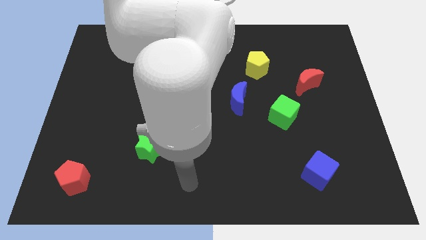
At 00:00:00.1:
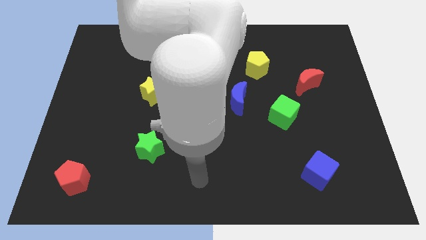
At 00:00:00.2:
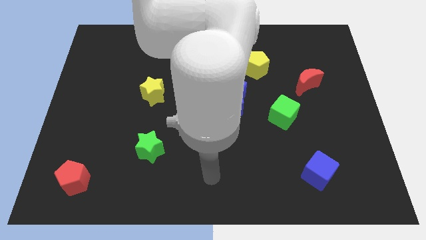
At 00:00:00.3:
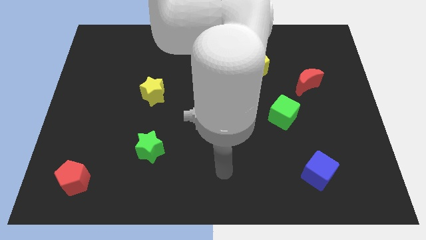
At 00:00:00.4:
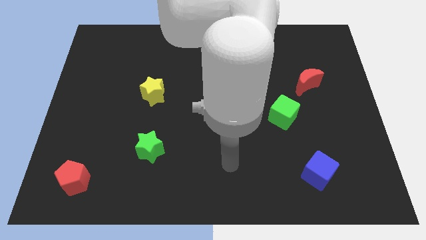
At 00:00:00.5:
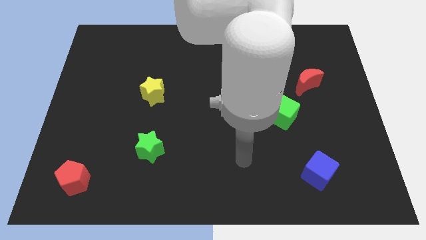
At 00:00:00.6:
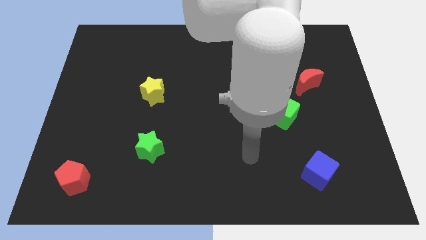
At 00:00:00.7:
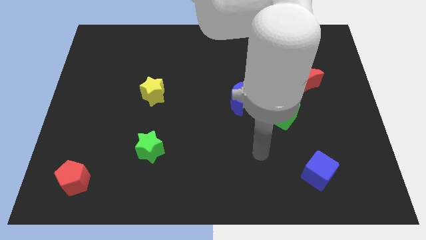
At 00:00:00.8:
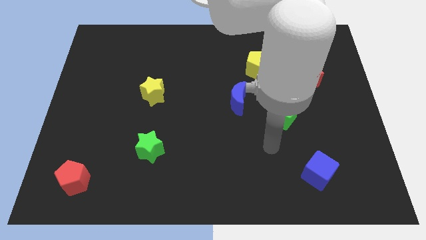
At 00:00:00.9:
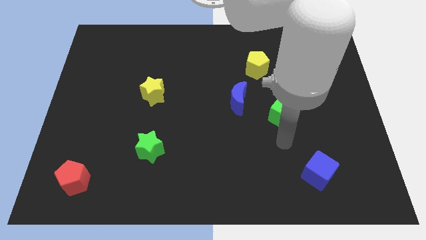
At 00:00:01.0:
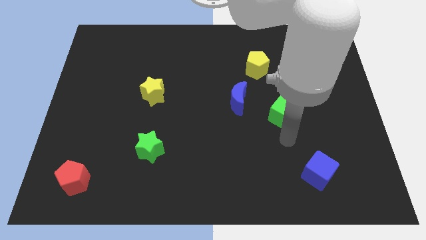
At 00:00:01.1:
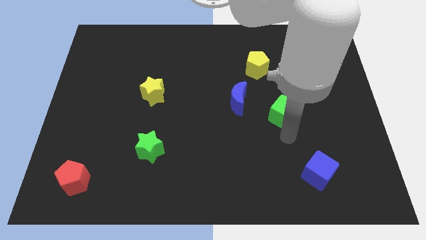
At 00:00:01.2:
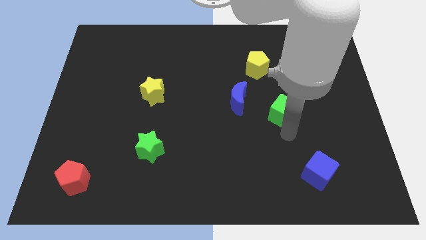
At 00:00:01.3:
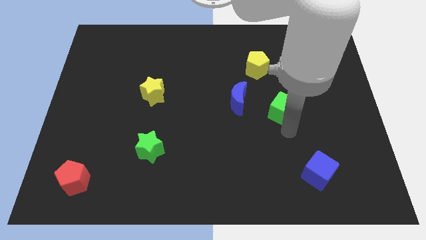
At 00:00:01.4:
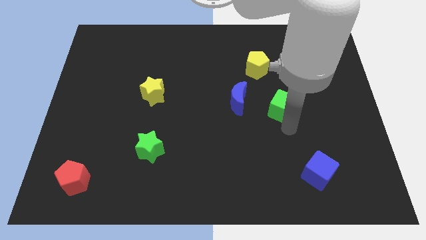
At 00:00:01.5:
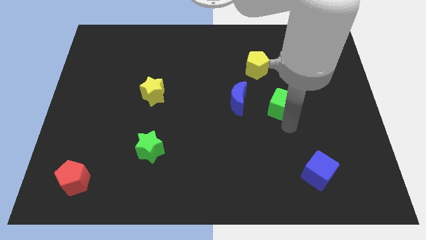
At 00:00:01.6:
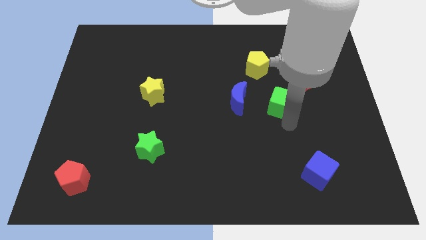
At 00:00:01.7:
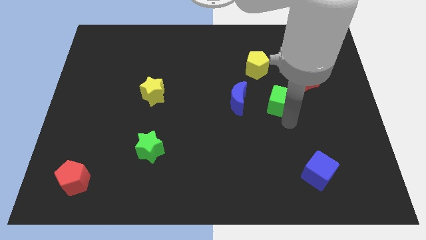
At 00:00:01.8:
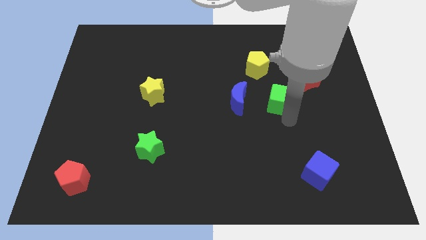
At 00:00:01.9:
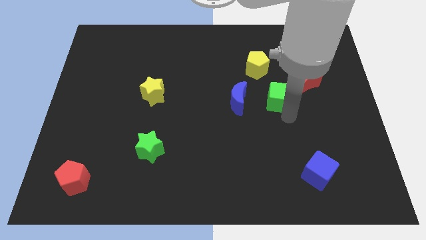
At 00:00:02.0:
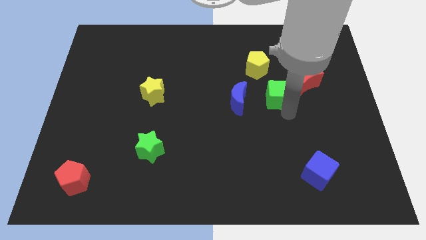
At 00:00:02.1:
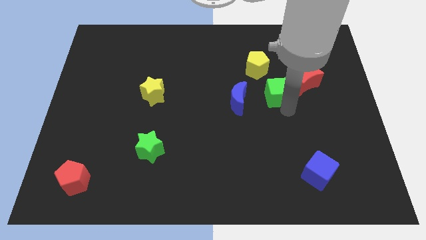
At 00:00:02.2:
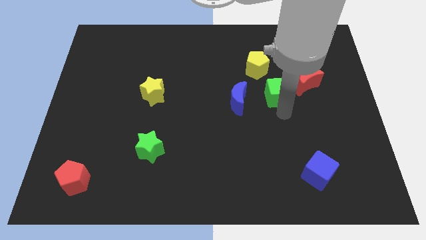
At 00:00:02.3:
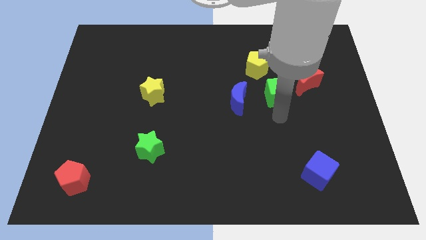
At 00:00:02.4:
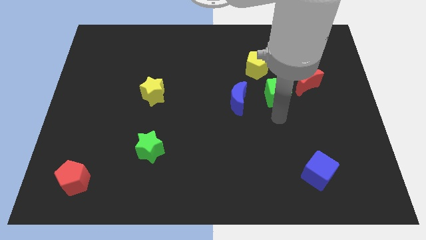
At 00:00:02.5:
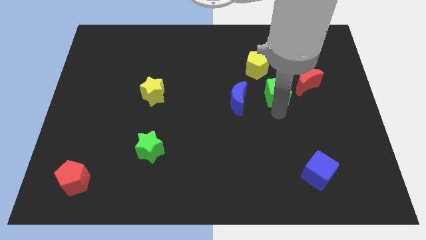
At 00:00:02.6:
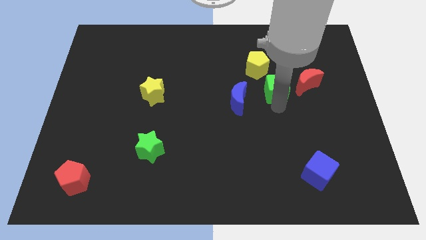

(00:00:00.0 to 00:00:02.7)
push the green cube upwards a little

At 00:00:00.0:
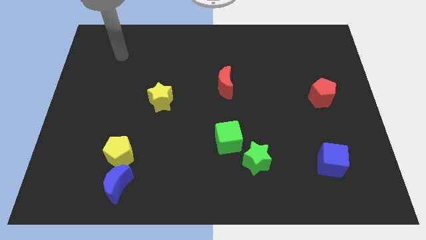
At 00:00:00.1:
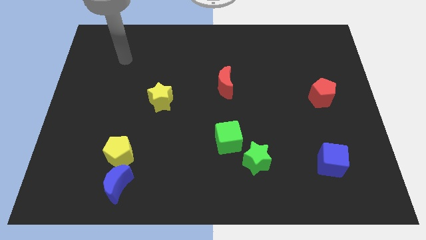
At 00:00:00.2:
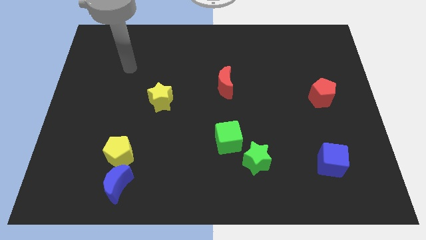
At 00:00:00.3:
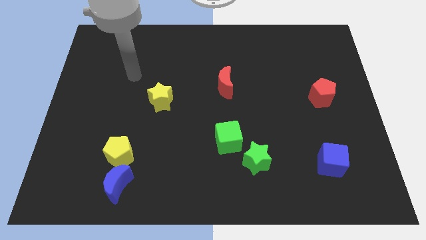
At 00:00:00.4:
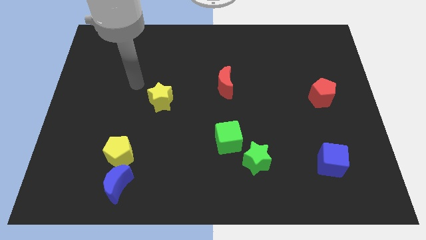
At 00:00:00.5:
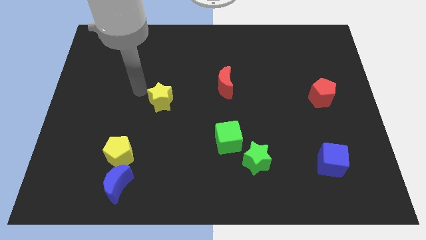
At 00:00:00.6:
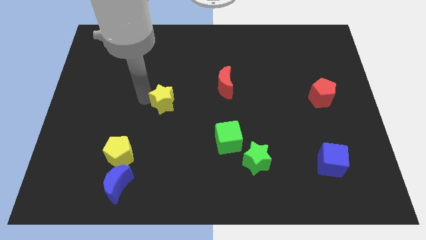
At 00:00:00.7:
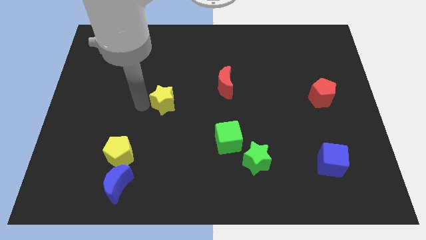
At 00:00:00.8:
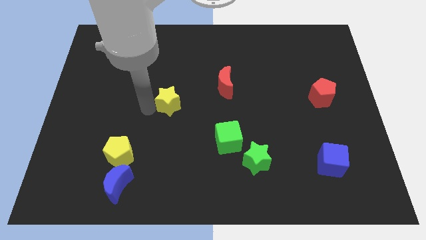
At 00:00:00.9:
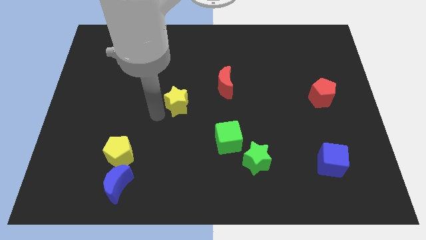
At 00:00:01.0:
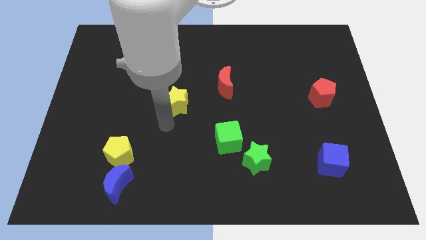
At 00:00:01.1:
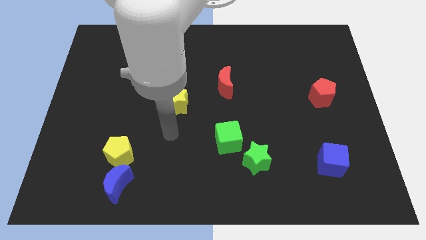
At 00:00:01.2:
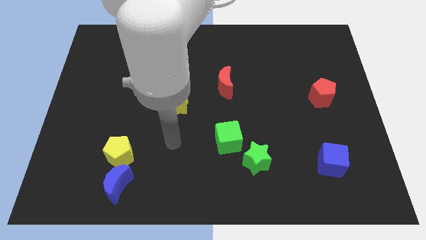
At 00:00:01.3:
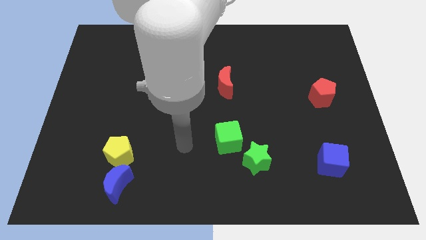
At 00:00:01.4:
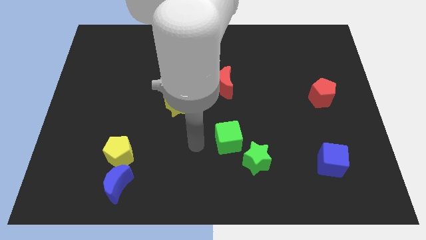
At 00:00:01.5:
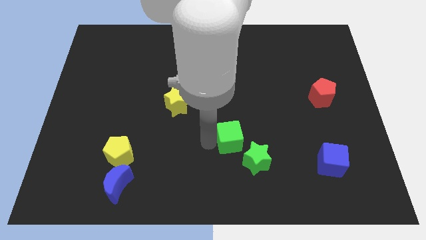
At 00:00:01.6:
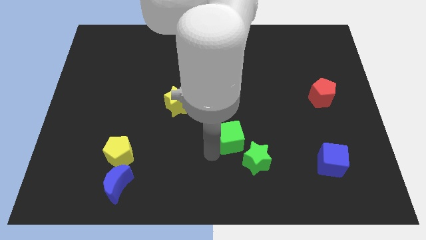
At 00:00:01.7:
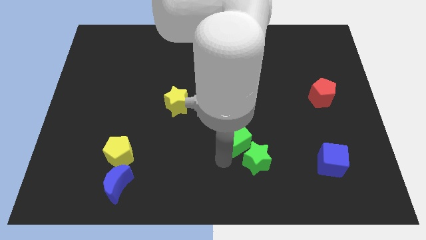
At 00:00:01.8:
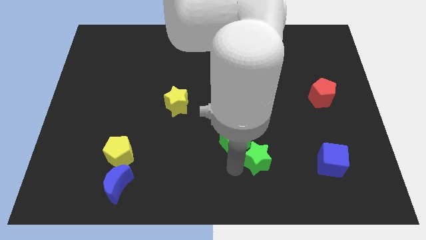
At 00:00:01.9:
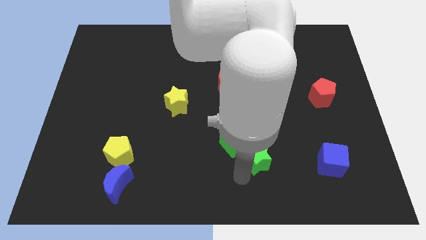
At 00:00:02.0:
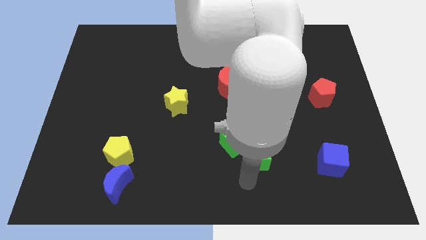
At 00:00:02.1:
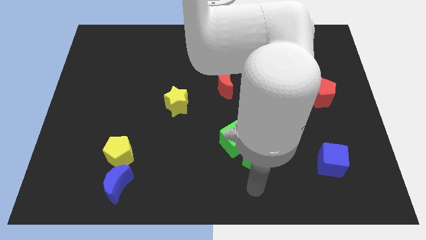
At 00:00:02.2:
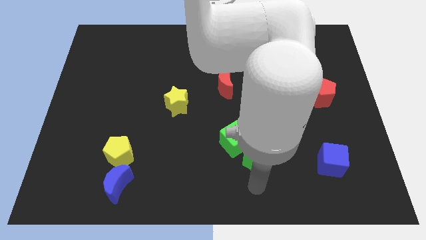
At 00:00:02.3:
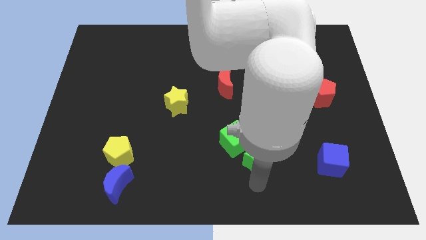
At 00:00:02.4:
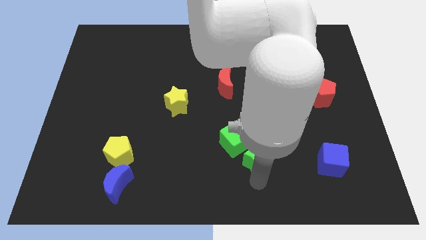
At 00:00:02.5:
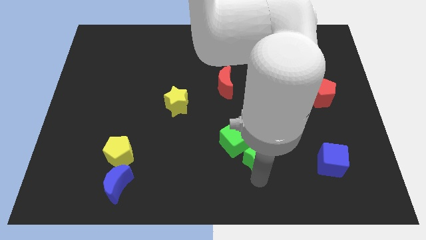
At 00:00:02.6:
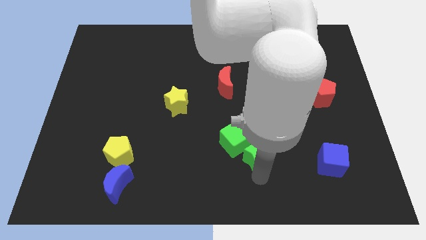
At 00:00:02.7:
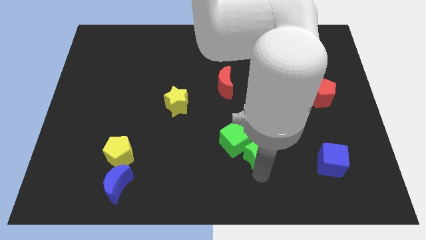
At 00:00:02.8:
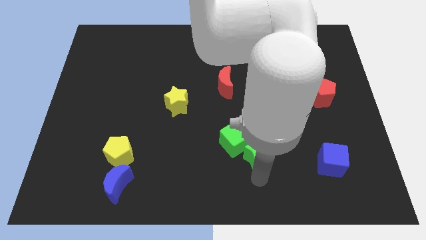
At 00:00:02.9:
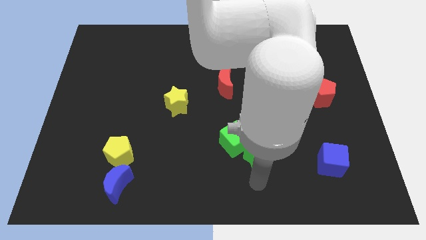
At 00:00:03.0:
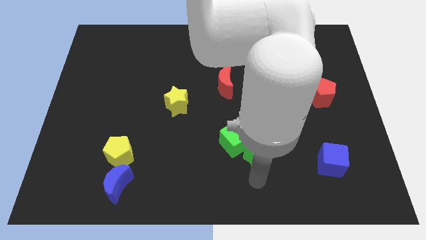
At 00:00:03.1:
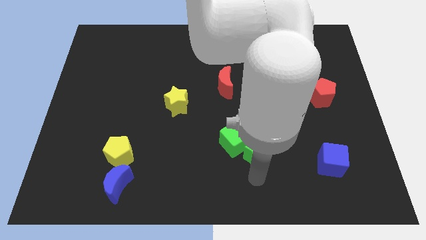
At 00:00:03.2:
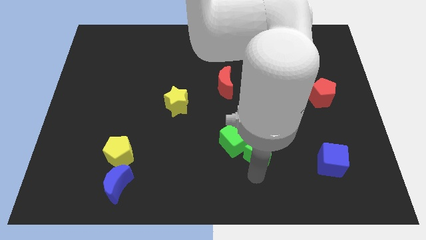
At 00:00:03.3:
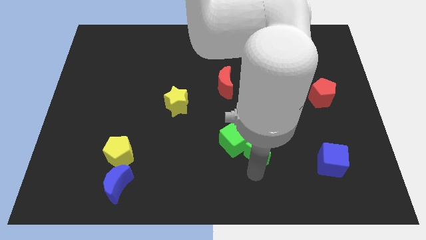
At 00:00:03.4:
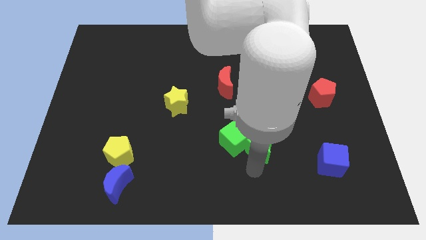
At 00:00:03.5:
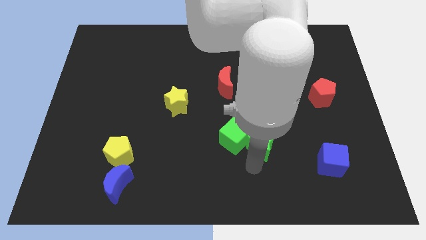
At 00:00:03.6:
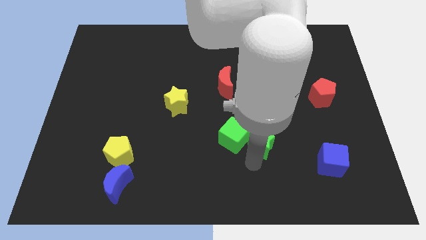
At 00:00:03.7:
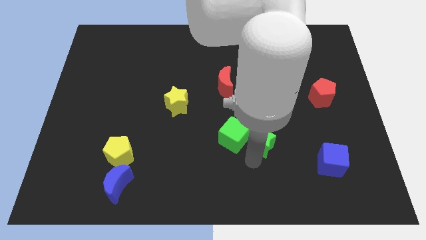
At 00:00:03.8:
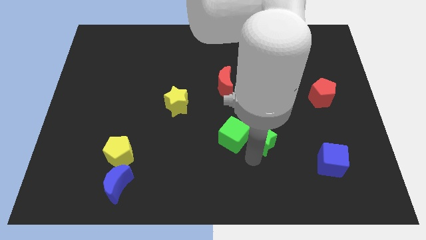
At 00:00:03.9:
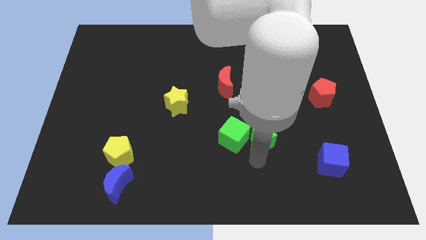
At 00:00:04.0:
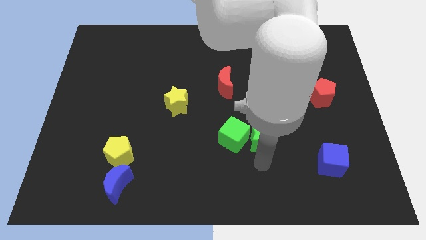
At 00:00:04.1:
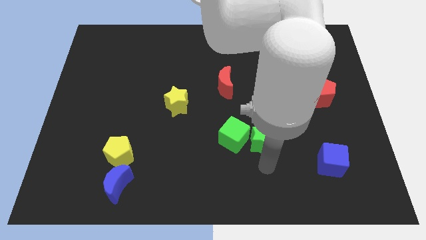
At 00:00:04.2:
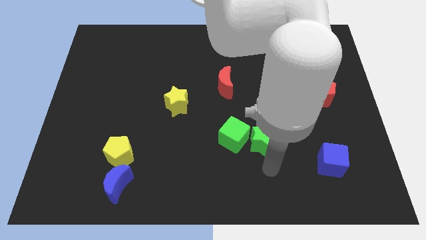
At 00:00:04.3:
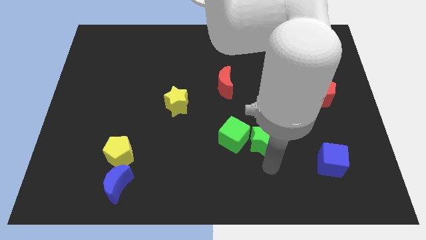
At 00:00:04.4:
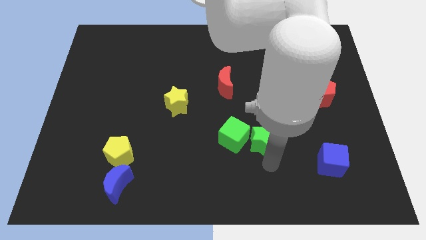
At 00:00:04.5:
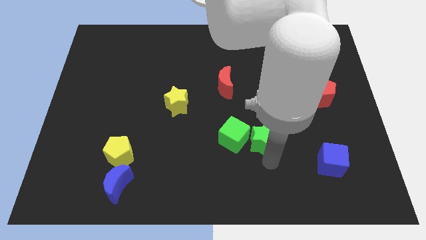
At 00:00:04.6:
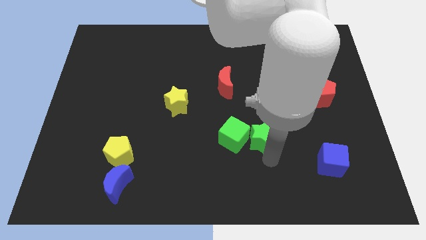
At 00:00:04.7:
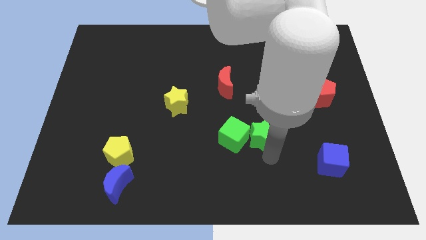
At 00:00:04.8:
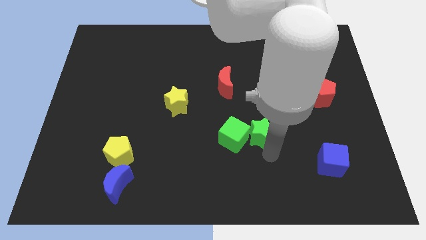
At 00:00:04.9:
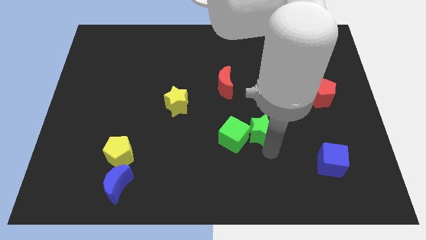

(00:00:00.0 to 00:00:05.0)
push the green star up a little
